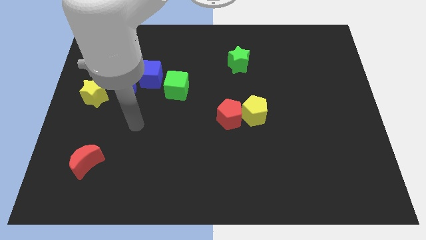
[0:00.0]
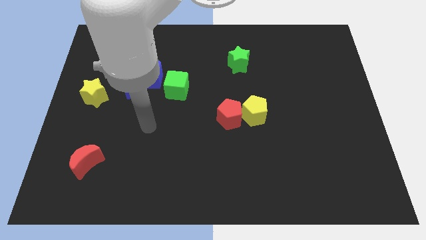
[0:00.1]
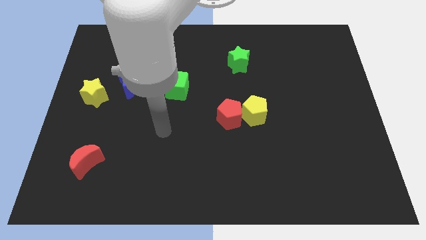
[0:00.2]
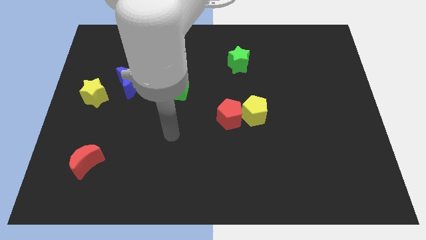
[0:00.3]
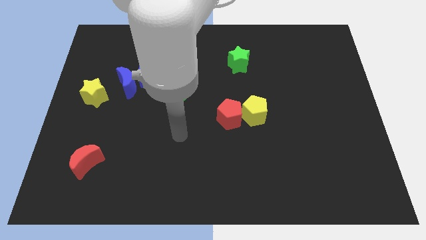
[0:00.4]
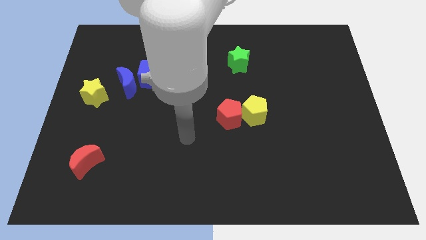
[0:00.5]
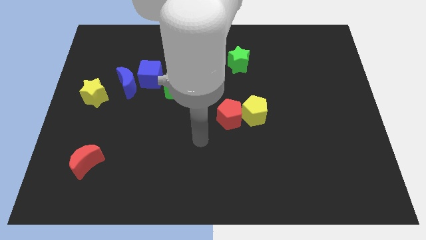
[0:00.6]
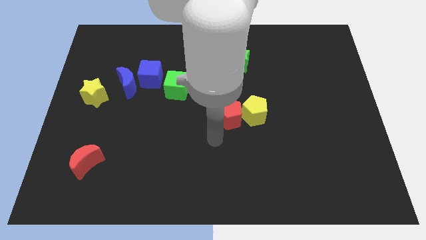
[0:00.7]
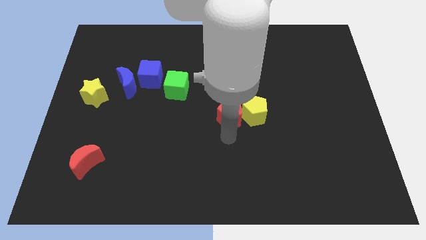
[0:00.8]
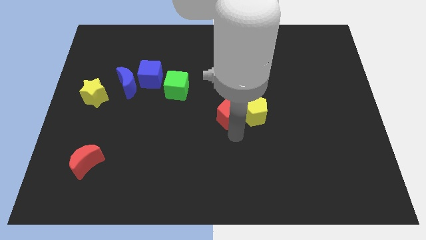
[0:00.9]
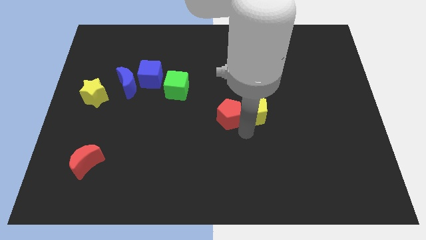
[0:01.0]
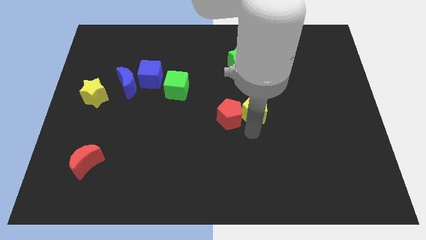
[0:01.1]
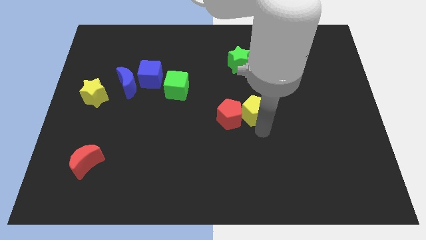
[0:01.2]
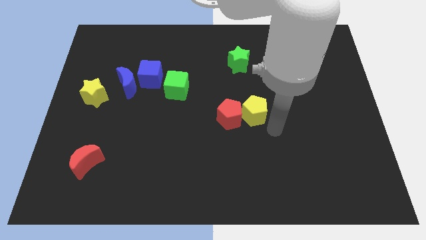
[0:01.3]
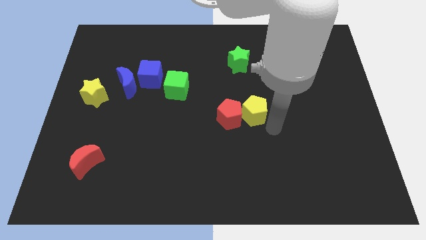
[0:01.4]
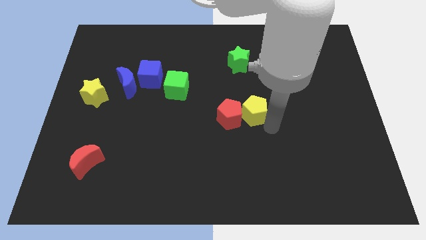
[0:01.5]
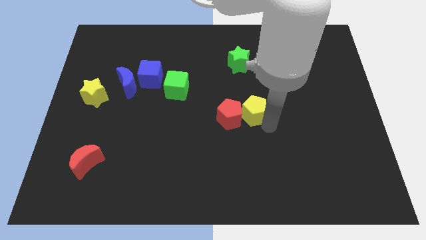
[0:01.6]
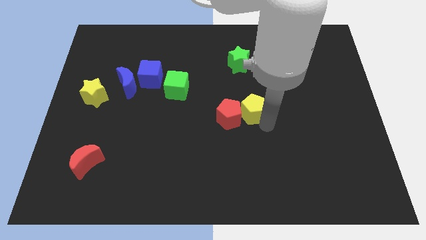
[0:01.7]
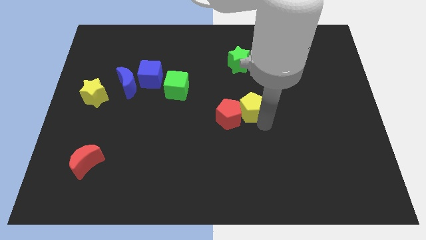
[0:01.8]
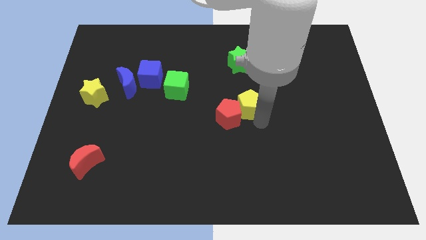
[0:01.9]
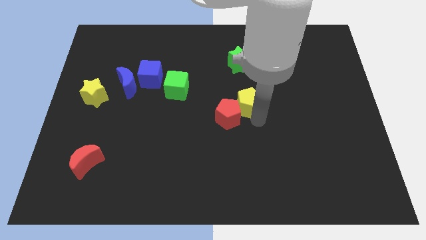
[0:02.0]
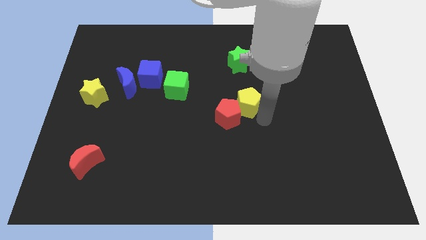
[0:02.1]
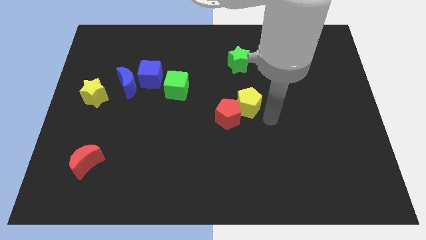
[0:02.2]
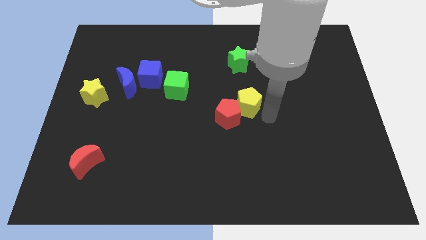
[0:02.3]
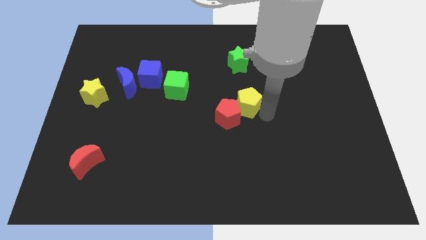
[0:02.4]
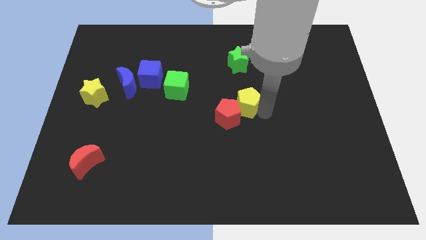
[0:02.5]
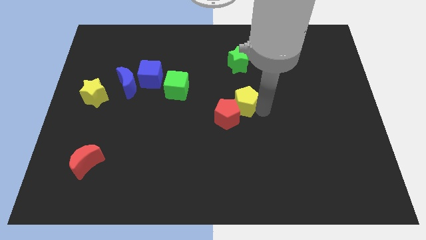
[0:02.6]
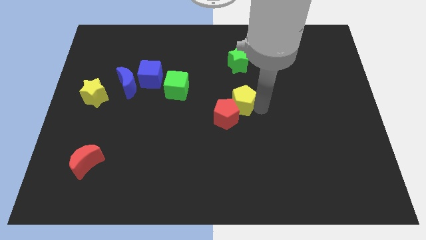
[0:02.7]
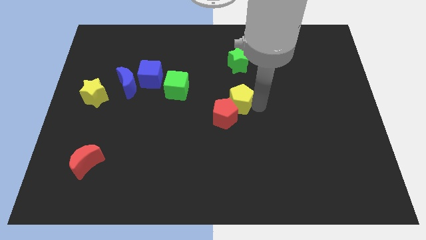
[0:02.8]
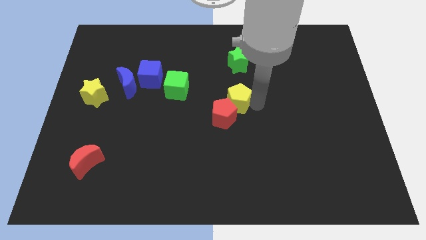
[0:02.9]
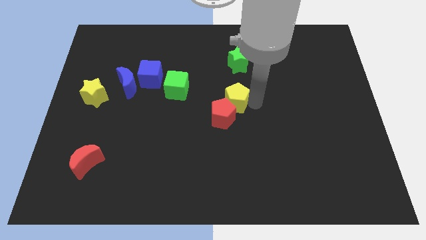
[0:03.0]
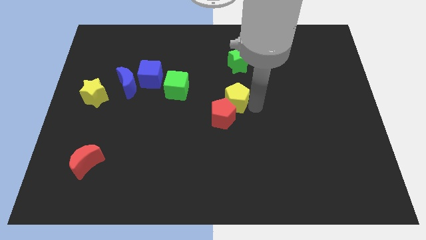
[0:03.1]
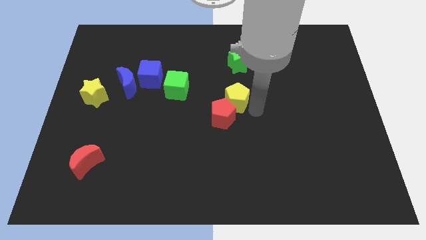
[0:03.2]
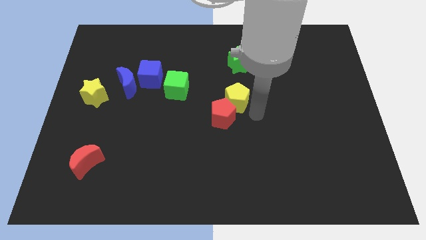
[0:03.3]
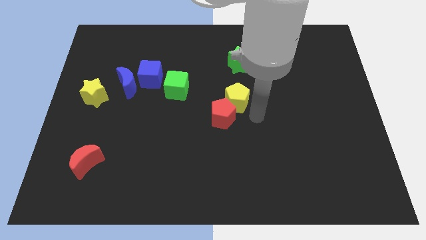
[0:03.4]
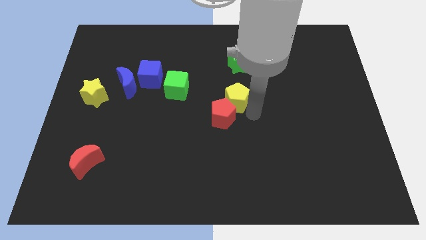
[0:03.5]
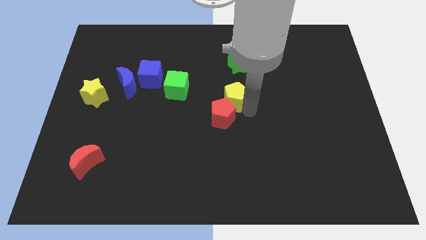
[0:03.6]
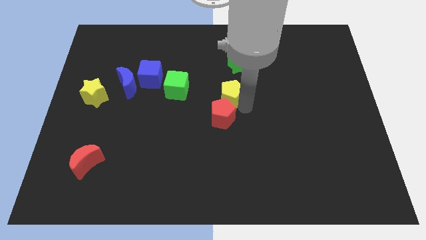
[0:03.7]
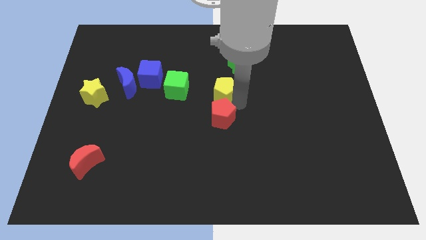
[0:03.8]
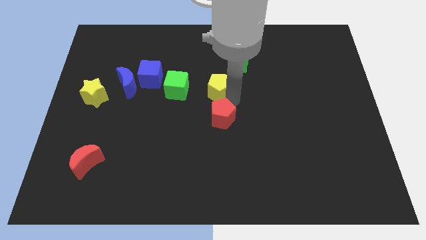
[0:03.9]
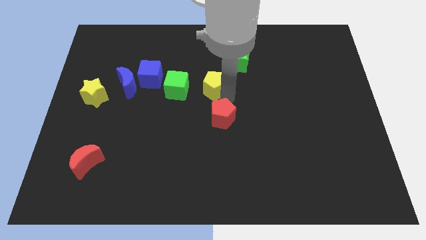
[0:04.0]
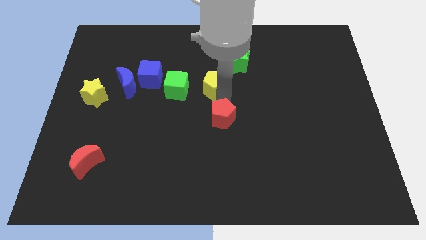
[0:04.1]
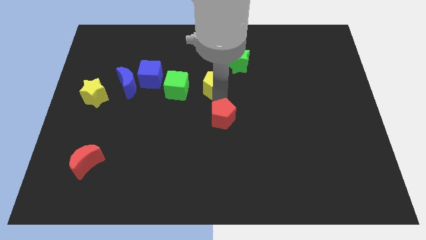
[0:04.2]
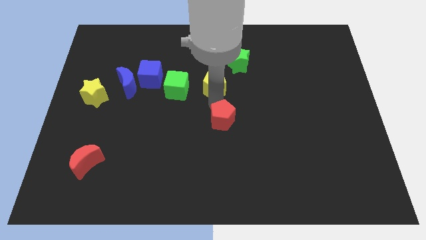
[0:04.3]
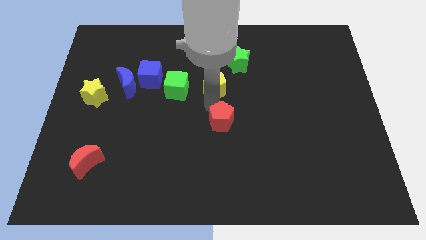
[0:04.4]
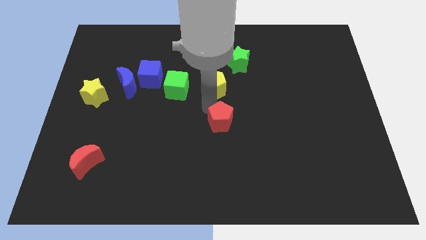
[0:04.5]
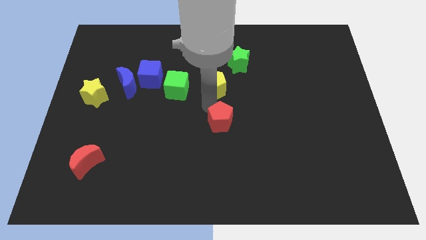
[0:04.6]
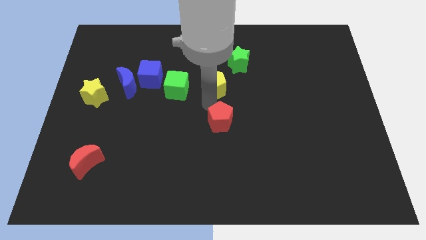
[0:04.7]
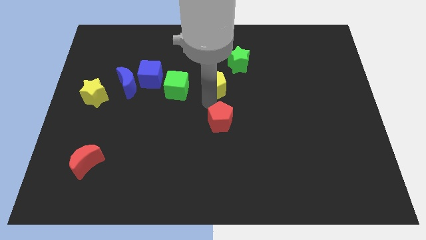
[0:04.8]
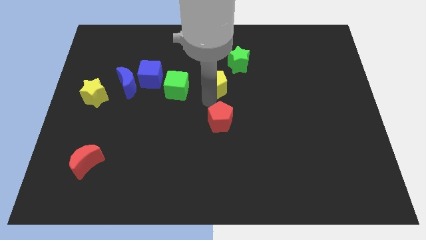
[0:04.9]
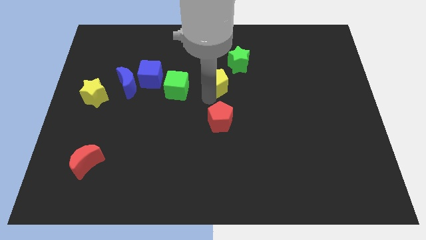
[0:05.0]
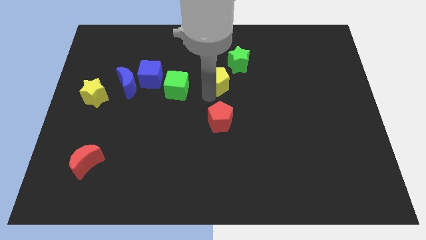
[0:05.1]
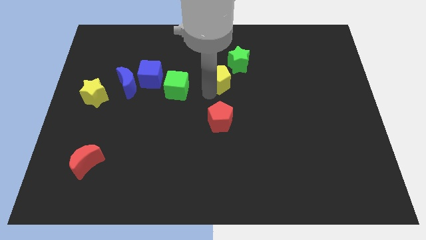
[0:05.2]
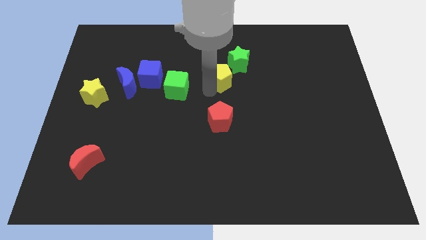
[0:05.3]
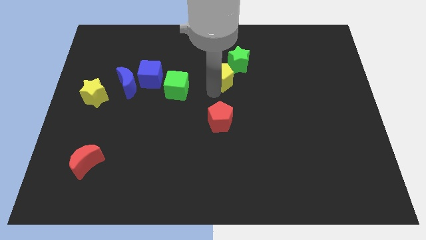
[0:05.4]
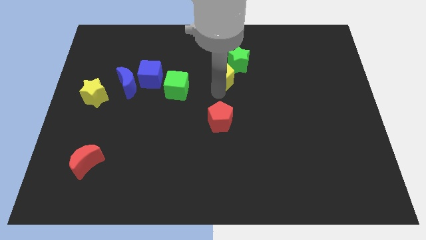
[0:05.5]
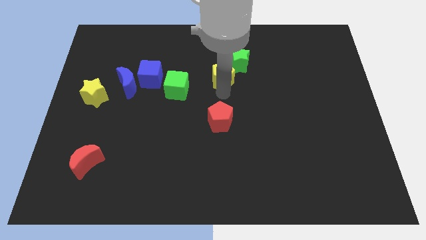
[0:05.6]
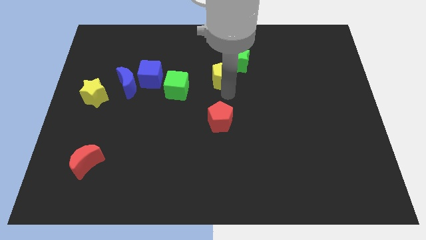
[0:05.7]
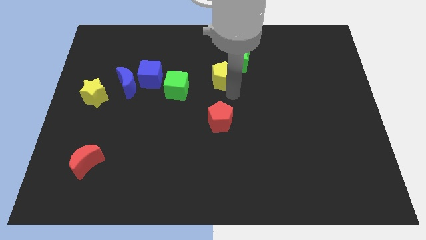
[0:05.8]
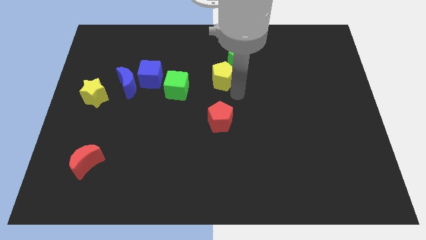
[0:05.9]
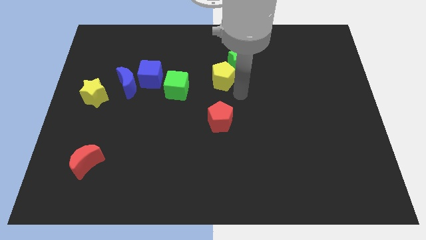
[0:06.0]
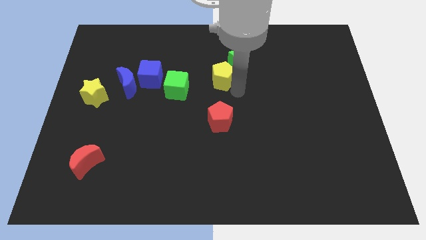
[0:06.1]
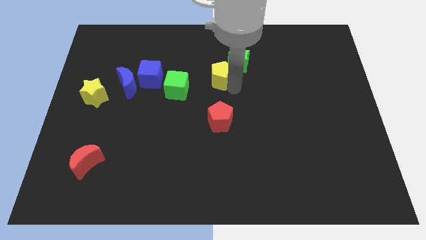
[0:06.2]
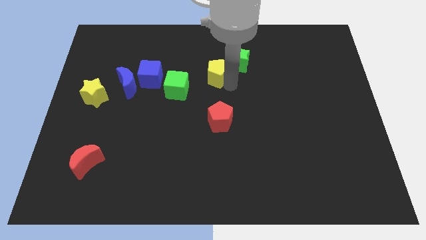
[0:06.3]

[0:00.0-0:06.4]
put the yellow pentagon just left of the green star

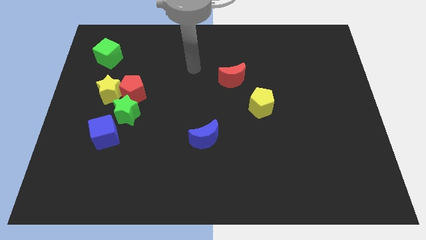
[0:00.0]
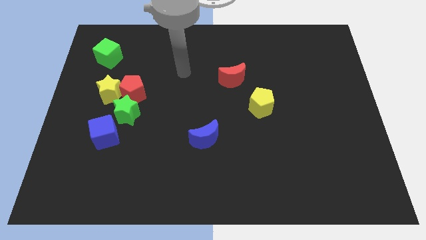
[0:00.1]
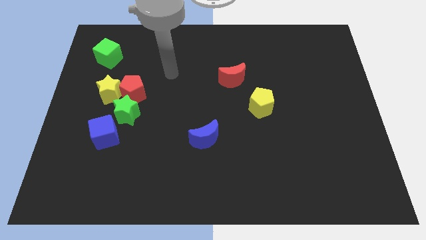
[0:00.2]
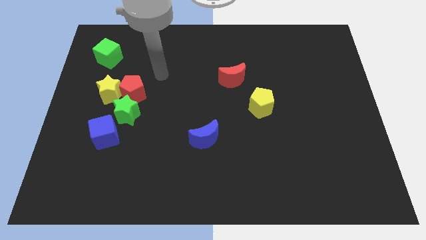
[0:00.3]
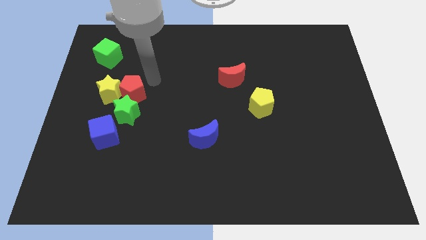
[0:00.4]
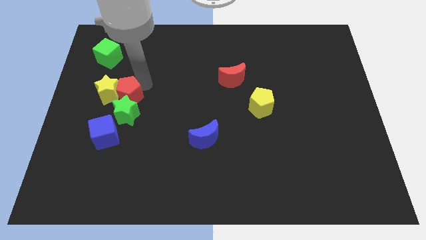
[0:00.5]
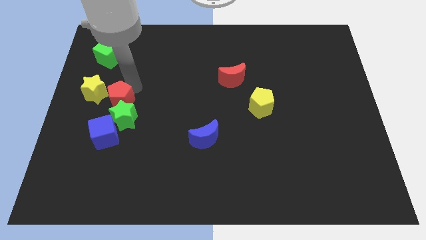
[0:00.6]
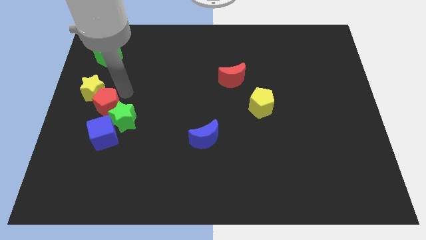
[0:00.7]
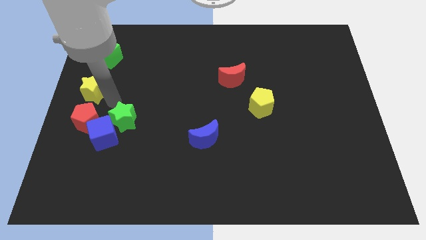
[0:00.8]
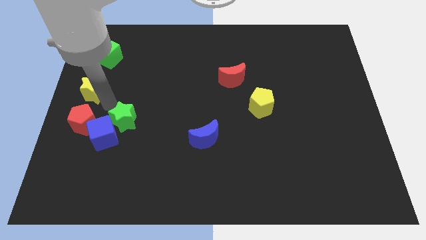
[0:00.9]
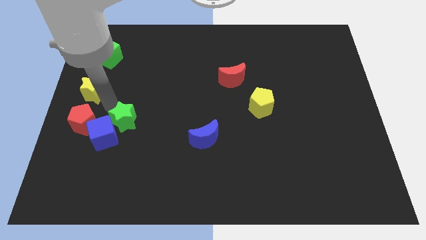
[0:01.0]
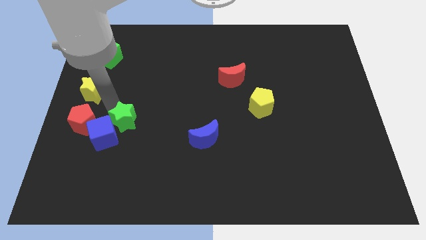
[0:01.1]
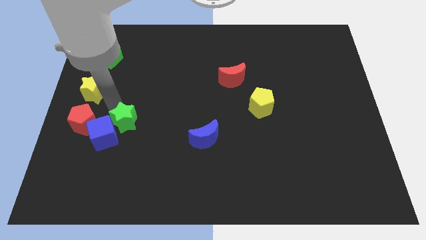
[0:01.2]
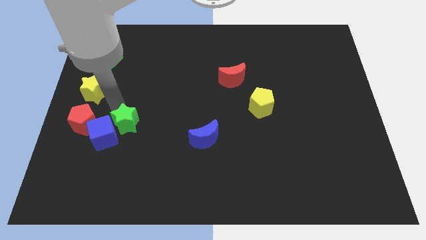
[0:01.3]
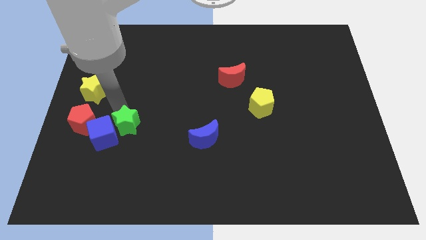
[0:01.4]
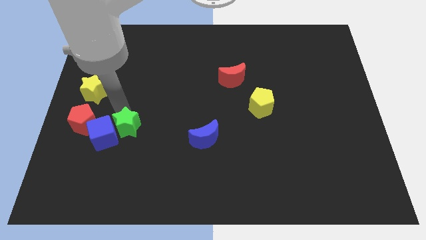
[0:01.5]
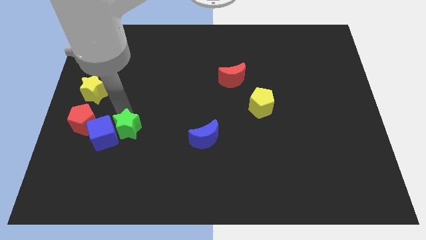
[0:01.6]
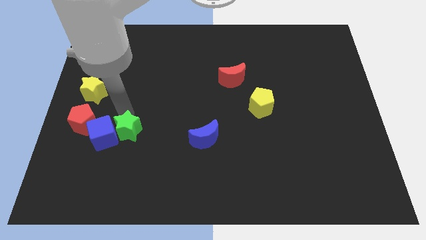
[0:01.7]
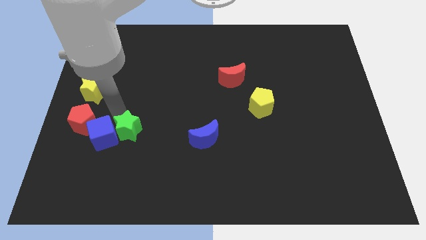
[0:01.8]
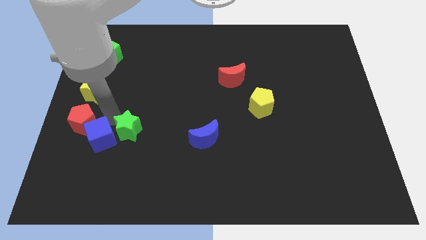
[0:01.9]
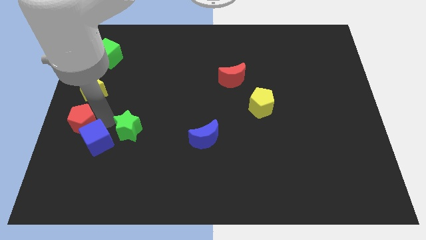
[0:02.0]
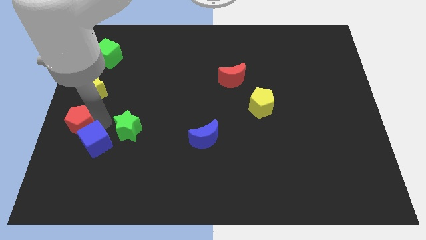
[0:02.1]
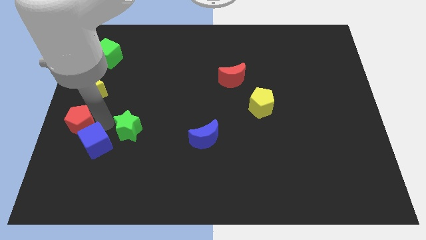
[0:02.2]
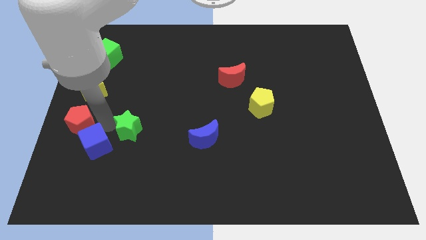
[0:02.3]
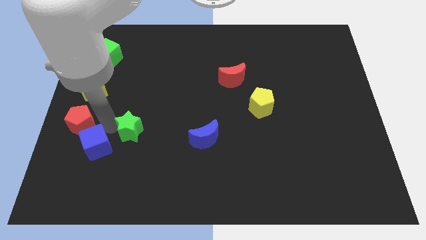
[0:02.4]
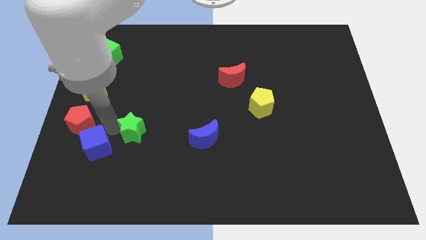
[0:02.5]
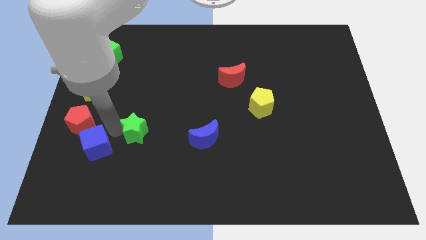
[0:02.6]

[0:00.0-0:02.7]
move the green star just left of the blue moon
